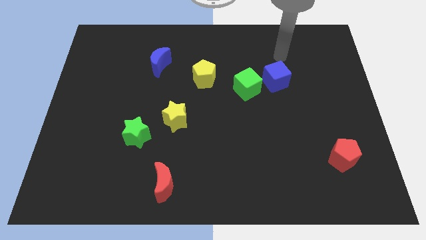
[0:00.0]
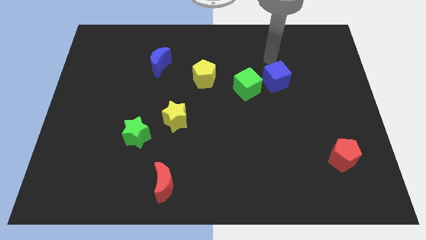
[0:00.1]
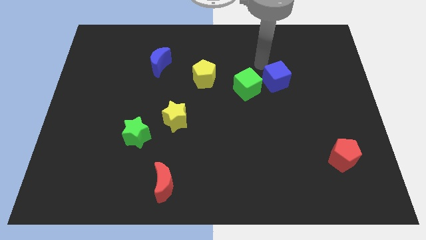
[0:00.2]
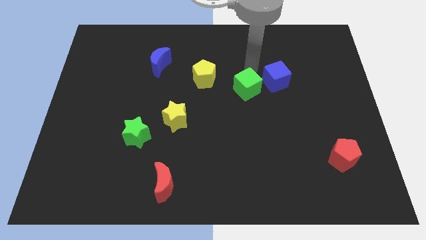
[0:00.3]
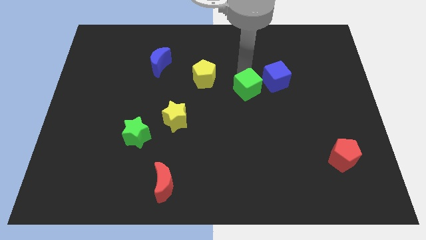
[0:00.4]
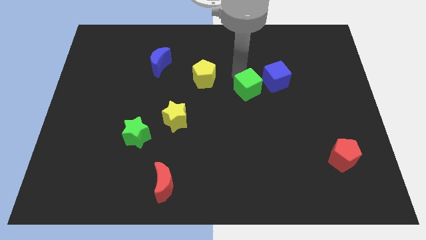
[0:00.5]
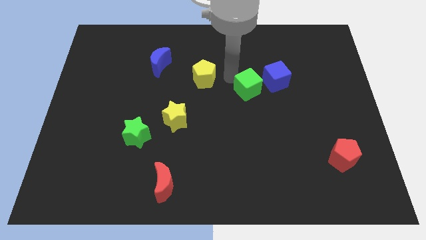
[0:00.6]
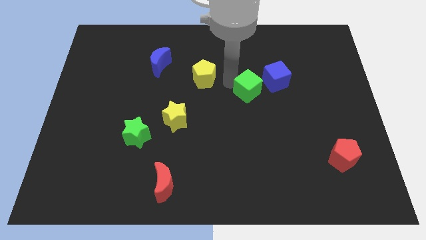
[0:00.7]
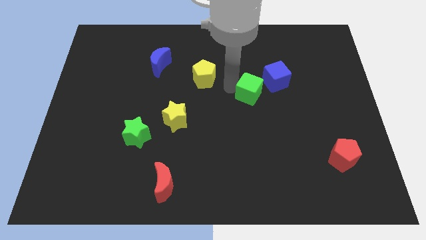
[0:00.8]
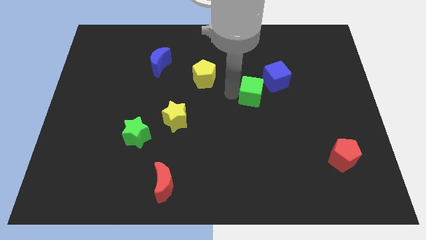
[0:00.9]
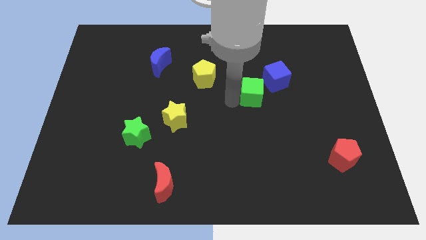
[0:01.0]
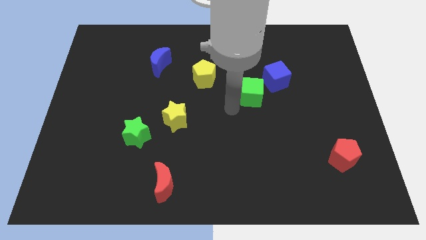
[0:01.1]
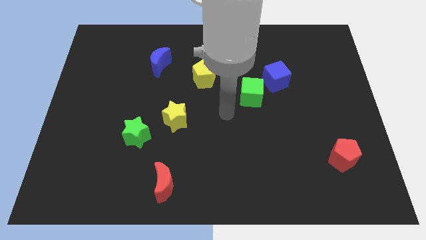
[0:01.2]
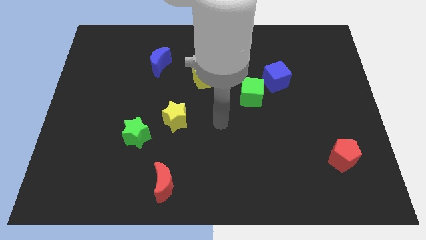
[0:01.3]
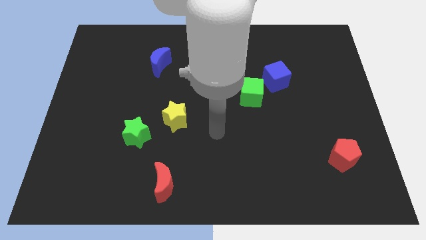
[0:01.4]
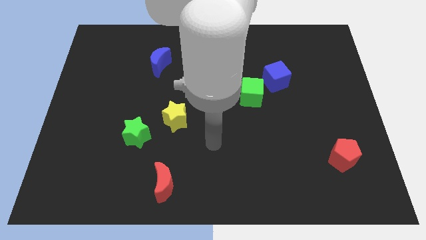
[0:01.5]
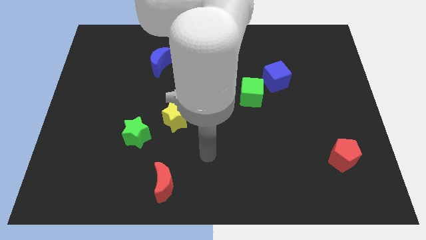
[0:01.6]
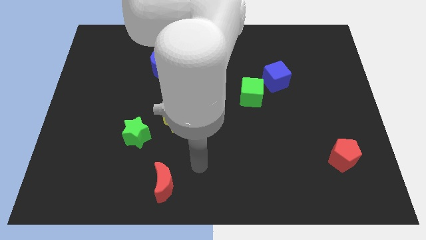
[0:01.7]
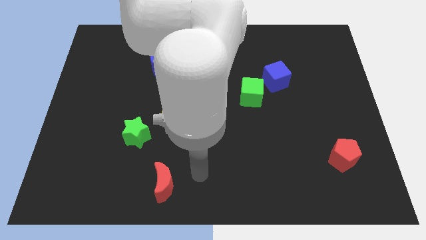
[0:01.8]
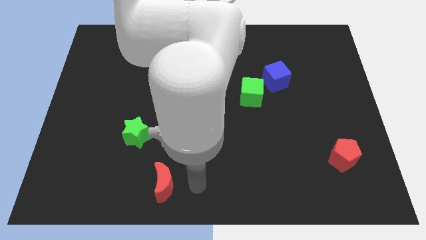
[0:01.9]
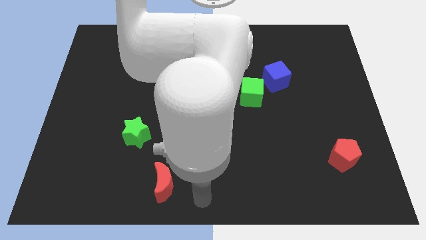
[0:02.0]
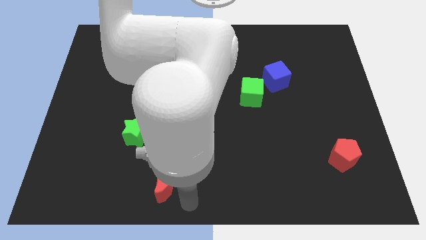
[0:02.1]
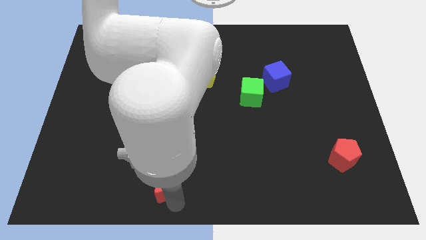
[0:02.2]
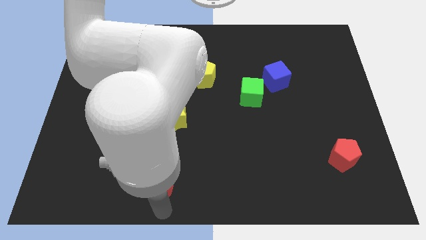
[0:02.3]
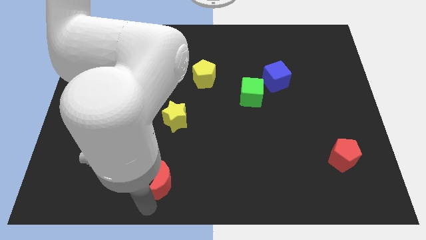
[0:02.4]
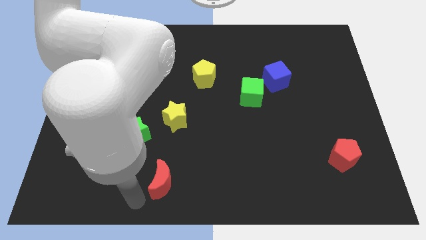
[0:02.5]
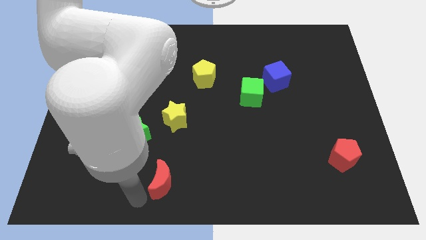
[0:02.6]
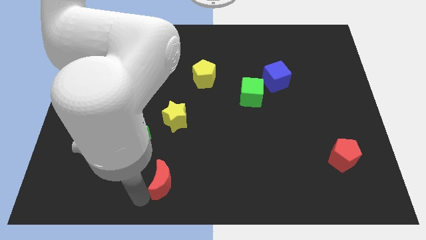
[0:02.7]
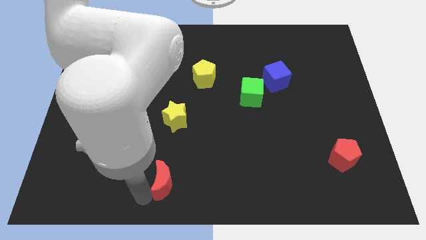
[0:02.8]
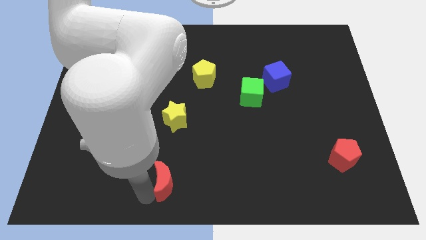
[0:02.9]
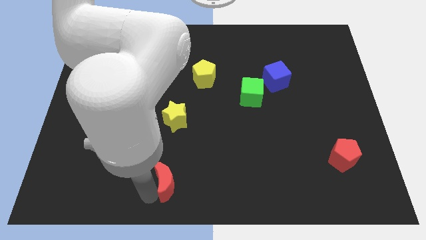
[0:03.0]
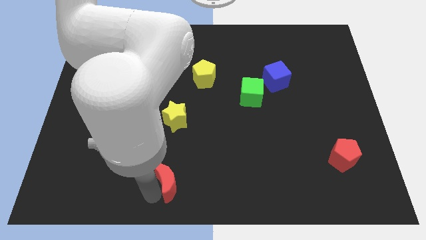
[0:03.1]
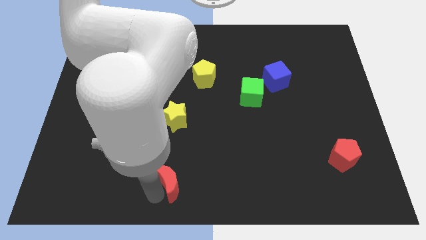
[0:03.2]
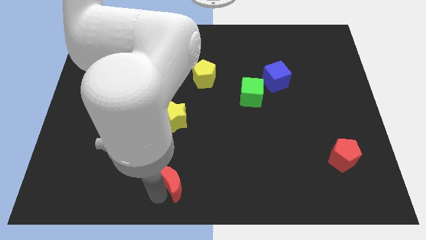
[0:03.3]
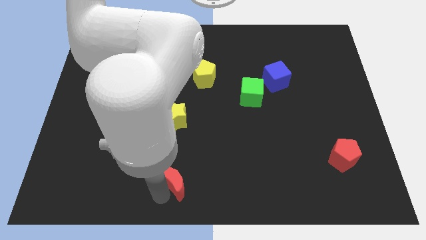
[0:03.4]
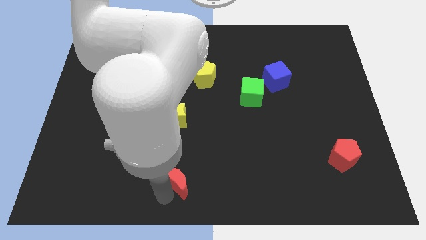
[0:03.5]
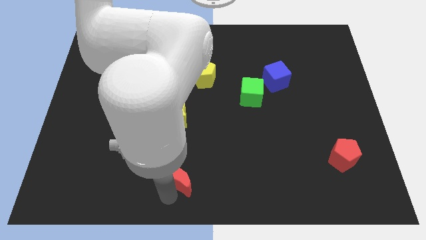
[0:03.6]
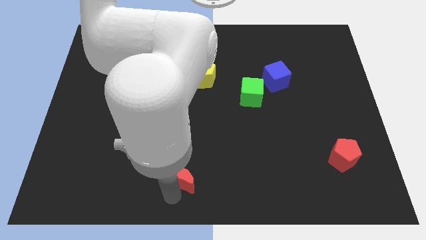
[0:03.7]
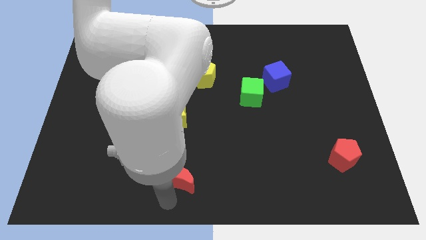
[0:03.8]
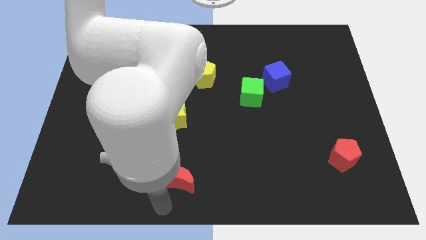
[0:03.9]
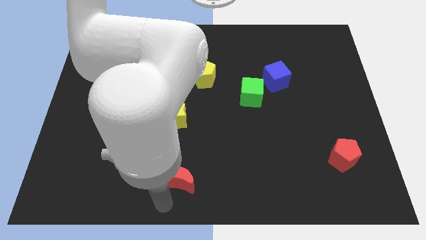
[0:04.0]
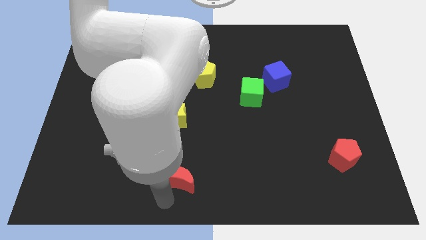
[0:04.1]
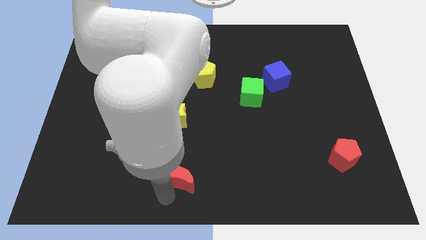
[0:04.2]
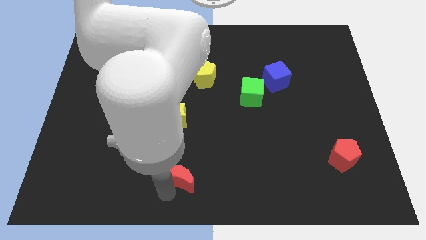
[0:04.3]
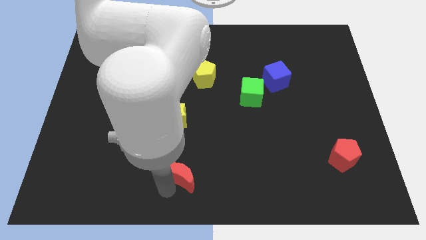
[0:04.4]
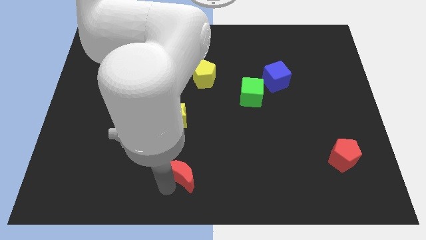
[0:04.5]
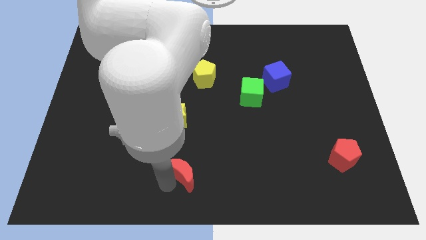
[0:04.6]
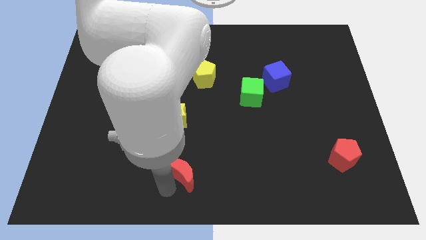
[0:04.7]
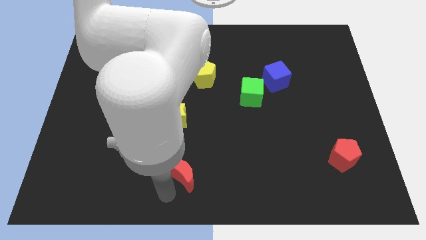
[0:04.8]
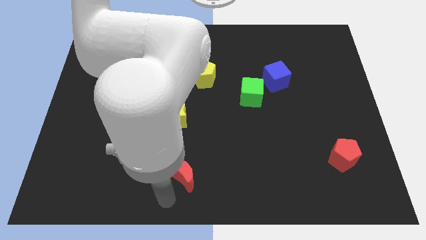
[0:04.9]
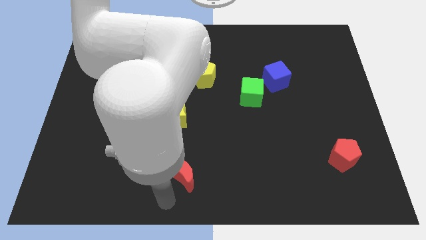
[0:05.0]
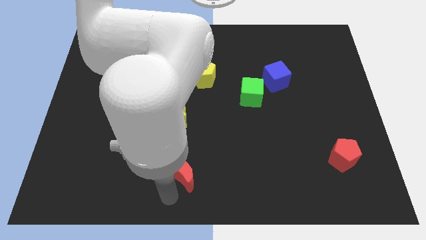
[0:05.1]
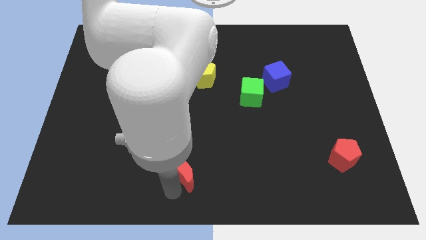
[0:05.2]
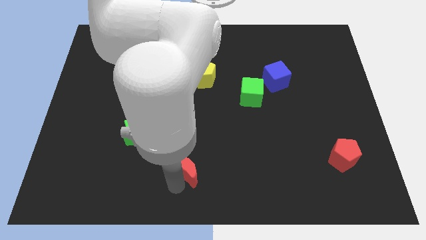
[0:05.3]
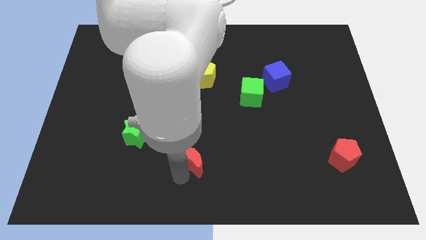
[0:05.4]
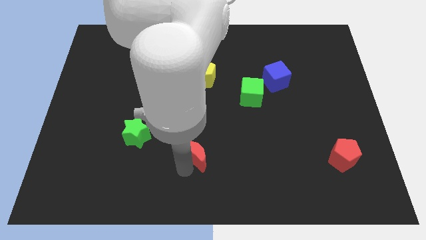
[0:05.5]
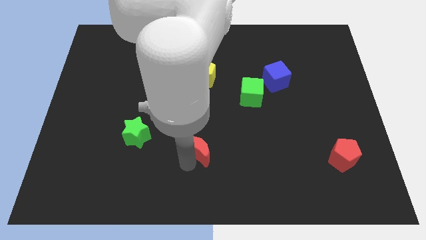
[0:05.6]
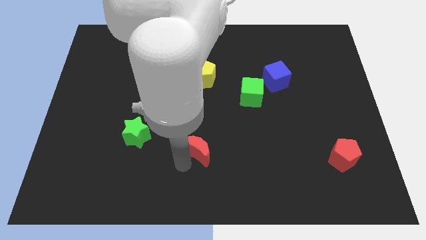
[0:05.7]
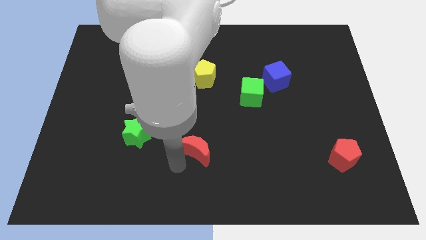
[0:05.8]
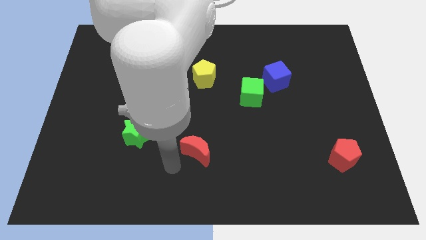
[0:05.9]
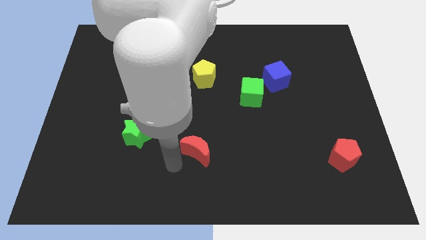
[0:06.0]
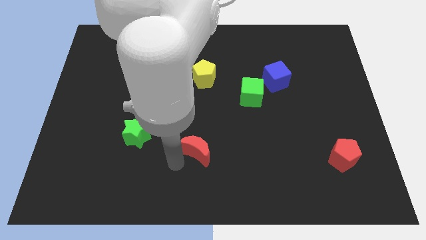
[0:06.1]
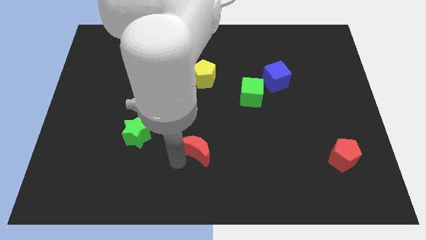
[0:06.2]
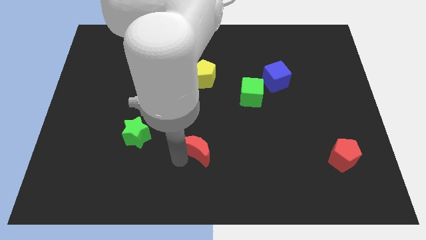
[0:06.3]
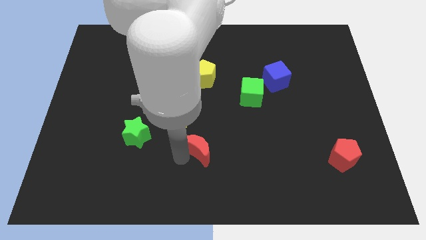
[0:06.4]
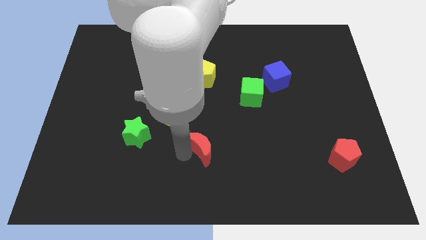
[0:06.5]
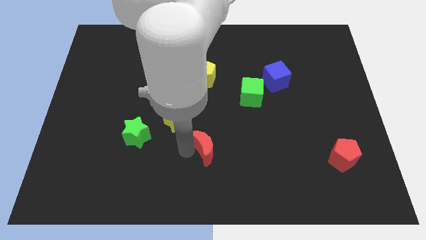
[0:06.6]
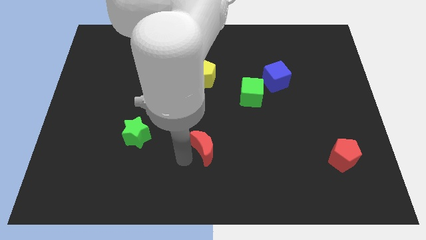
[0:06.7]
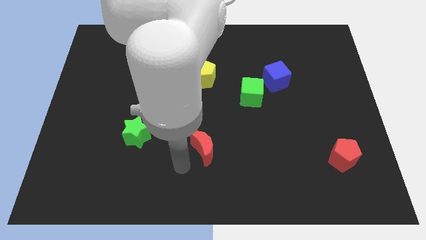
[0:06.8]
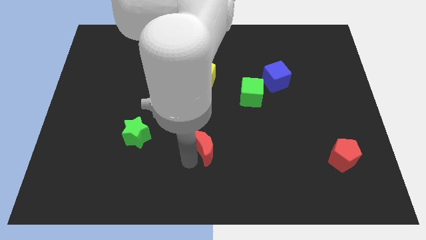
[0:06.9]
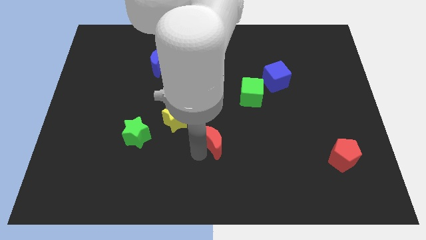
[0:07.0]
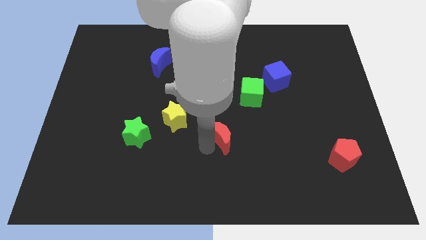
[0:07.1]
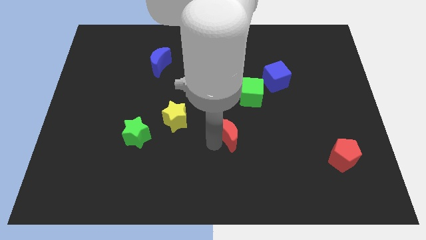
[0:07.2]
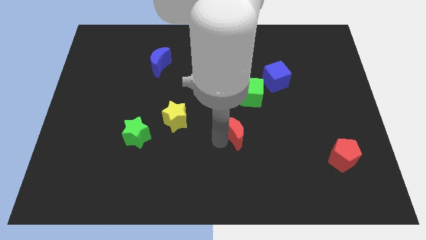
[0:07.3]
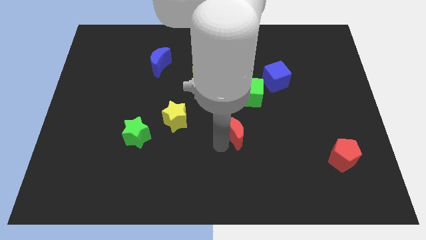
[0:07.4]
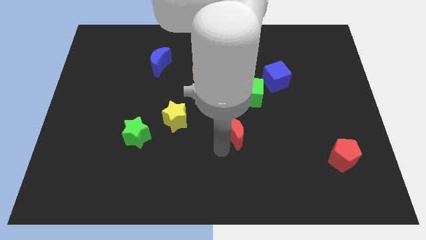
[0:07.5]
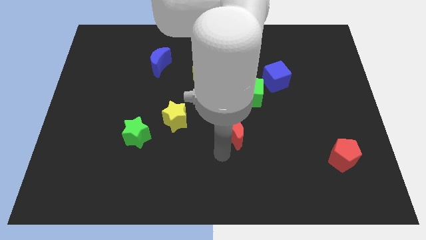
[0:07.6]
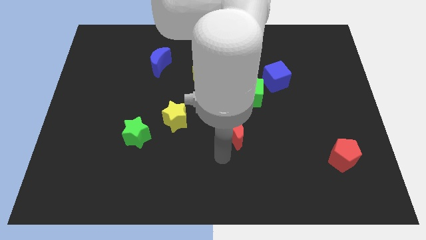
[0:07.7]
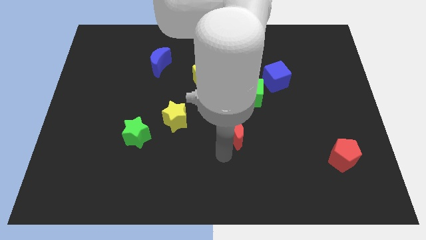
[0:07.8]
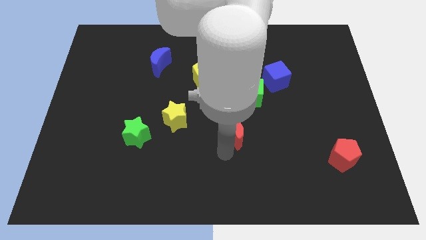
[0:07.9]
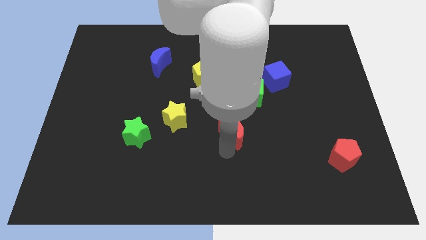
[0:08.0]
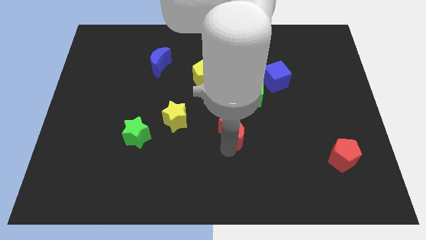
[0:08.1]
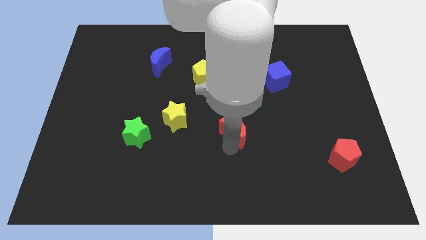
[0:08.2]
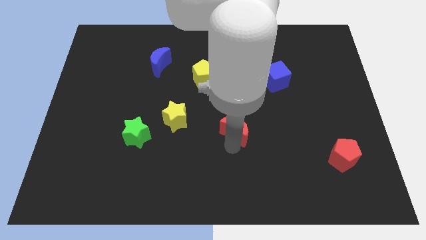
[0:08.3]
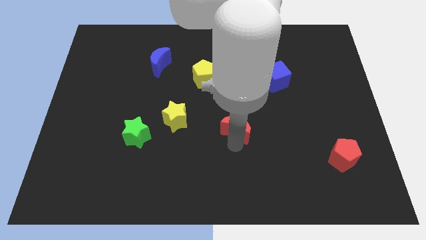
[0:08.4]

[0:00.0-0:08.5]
slide the red moon diagonally upwards and right
